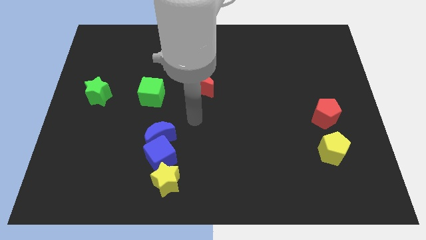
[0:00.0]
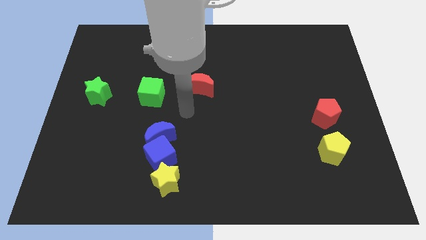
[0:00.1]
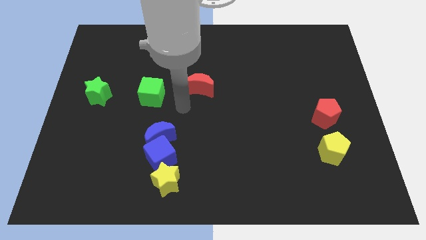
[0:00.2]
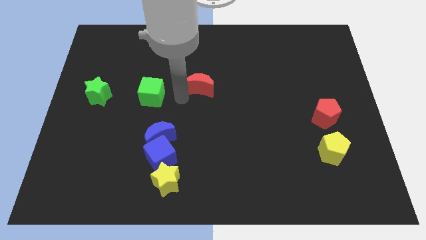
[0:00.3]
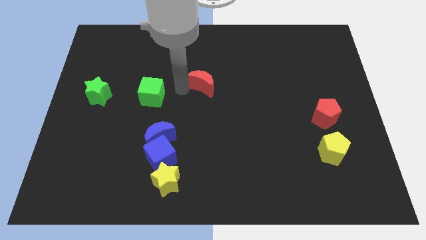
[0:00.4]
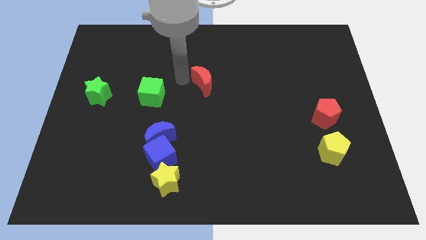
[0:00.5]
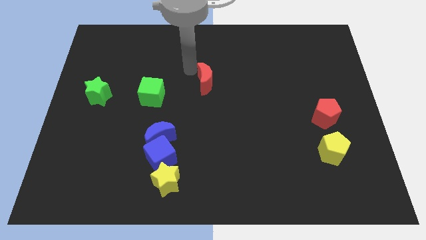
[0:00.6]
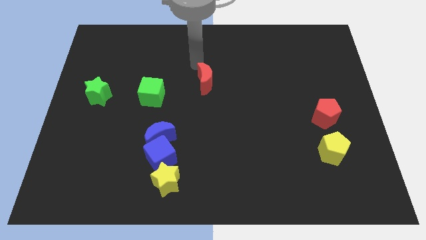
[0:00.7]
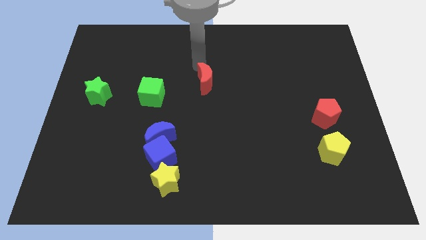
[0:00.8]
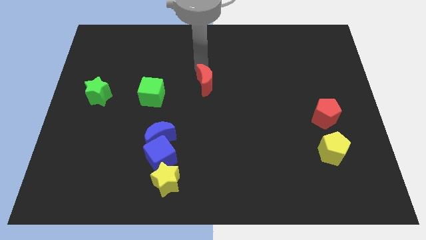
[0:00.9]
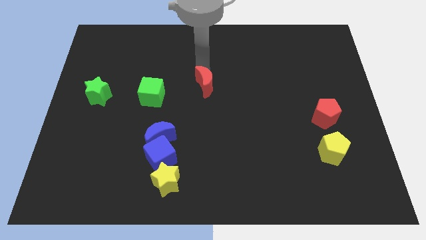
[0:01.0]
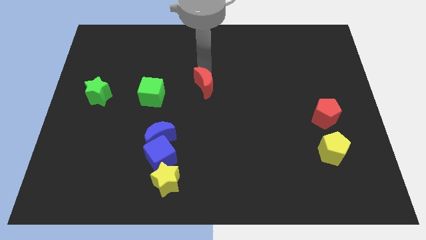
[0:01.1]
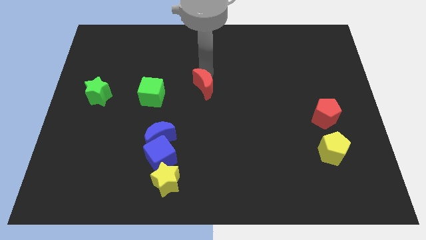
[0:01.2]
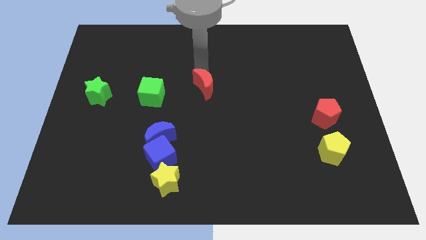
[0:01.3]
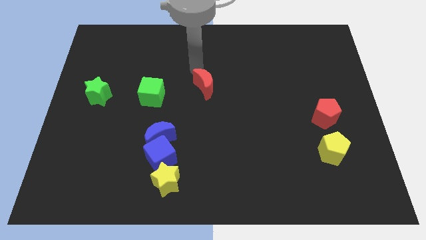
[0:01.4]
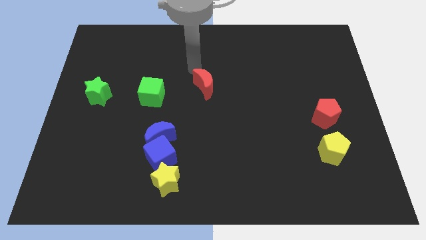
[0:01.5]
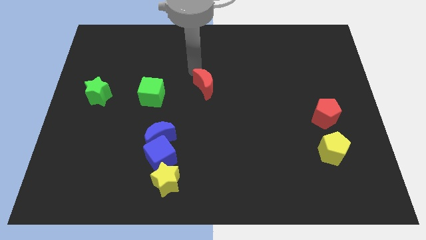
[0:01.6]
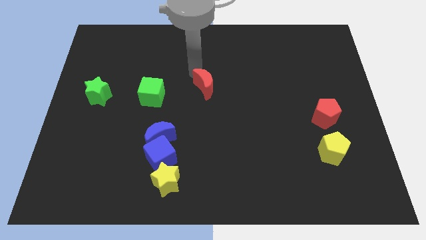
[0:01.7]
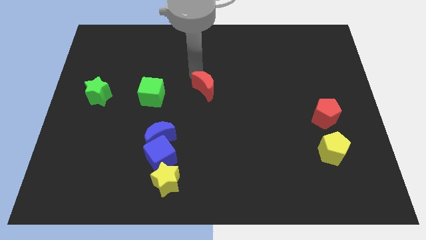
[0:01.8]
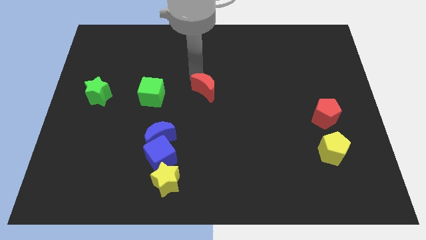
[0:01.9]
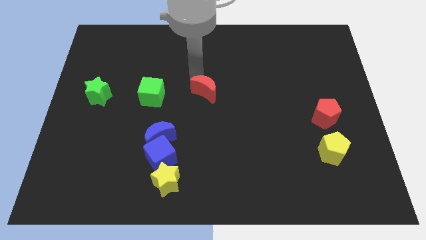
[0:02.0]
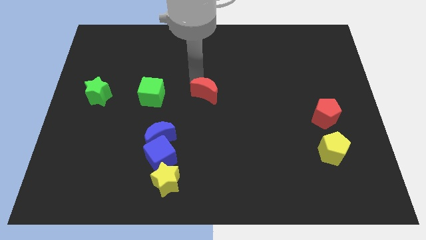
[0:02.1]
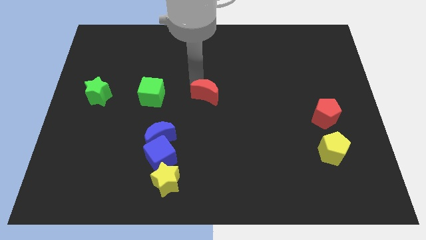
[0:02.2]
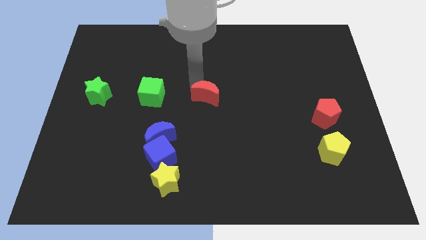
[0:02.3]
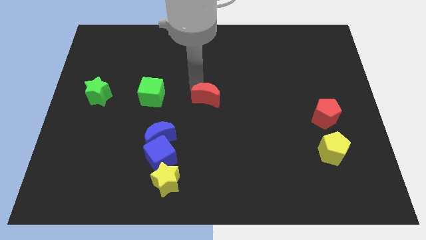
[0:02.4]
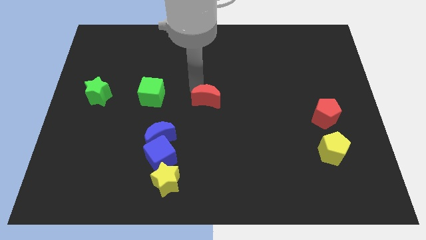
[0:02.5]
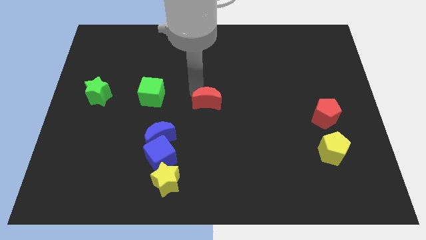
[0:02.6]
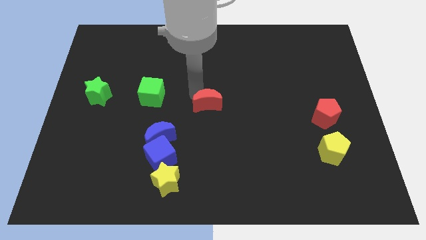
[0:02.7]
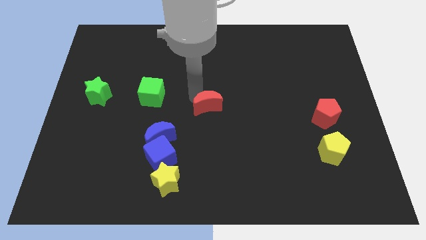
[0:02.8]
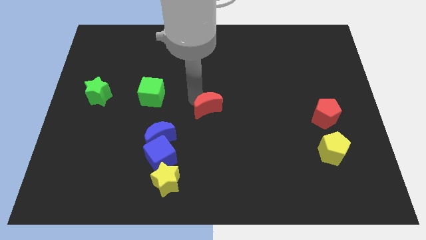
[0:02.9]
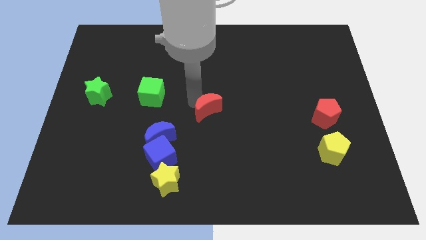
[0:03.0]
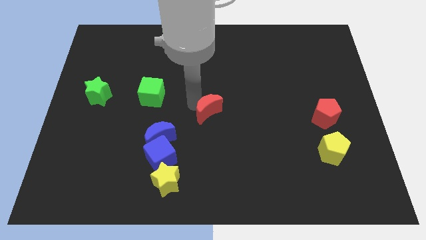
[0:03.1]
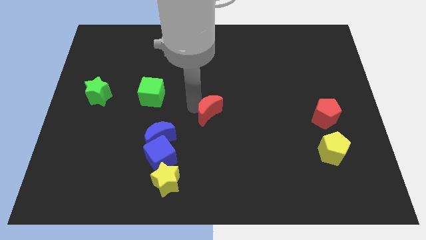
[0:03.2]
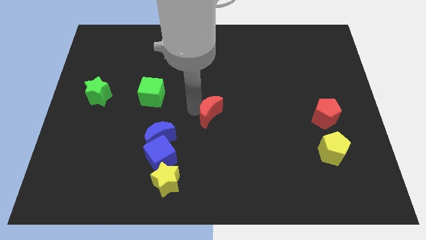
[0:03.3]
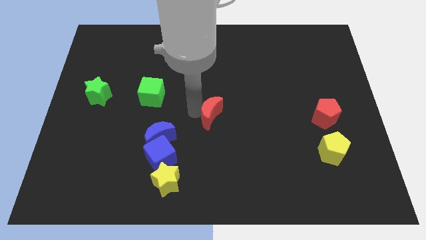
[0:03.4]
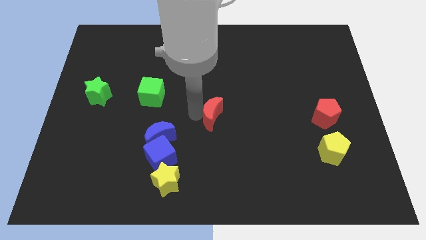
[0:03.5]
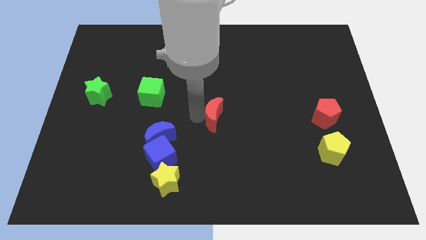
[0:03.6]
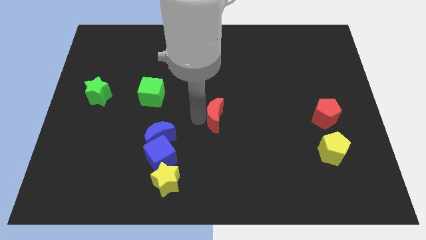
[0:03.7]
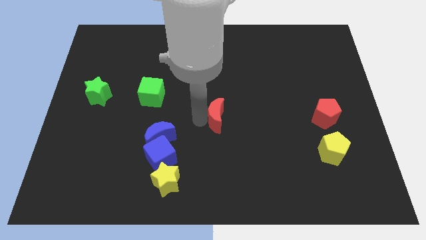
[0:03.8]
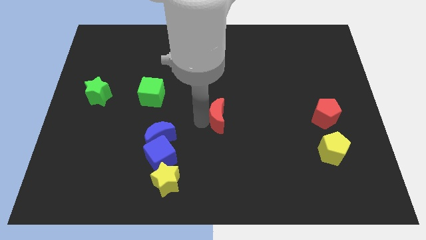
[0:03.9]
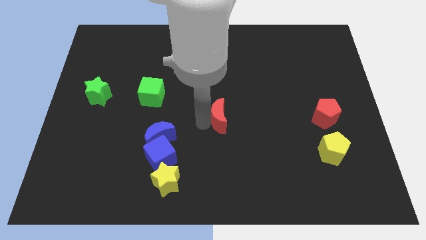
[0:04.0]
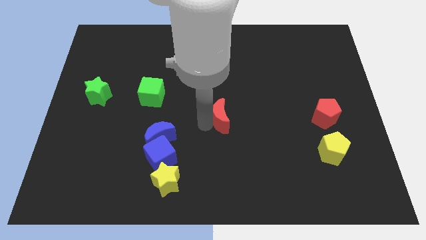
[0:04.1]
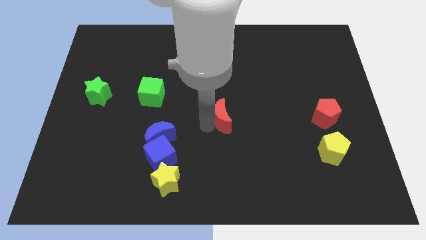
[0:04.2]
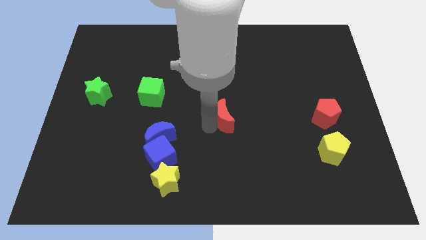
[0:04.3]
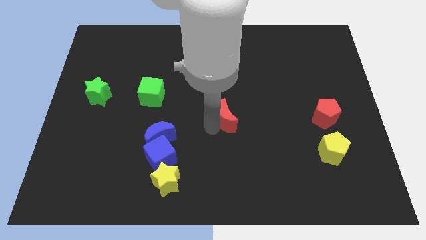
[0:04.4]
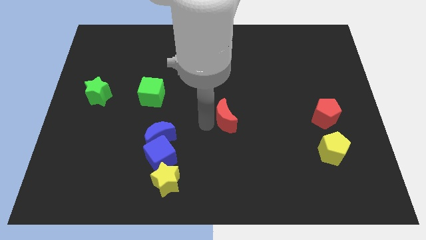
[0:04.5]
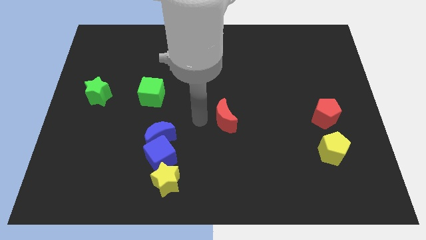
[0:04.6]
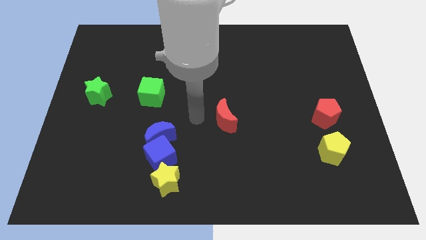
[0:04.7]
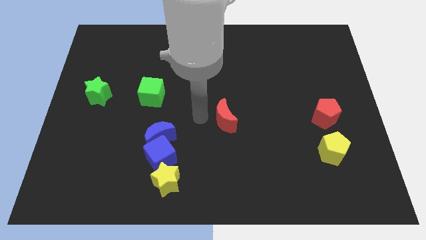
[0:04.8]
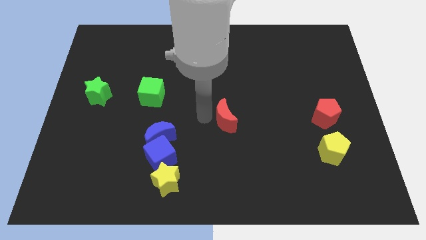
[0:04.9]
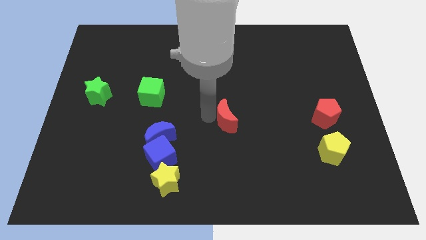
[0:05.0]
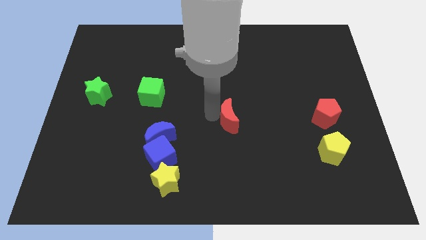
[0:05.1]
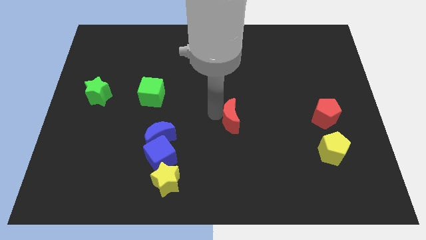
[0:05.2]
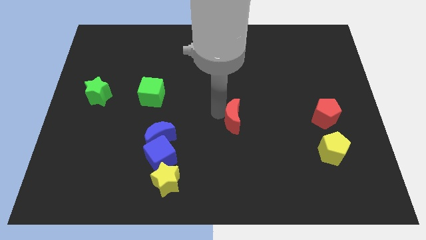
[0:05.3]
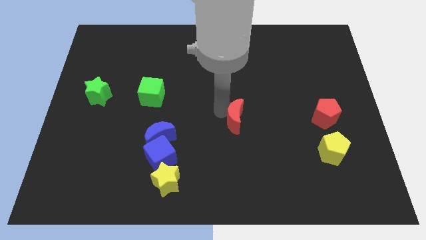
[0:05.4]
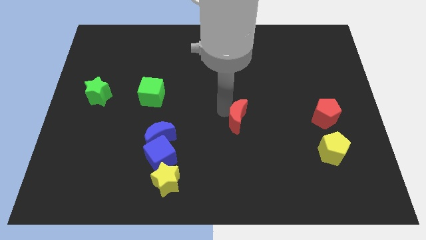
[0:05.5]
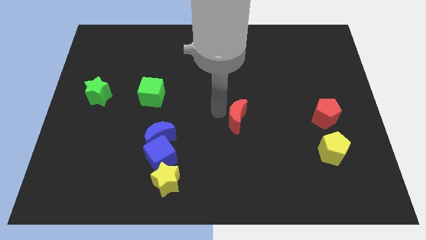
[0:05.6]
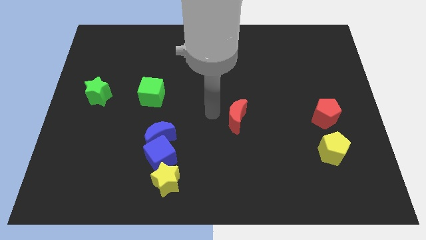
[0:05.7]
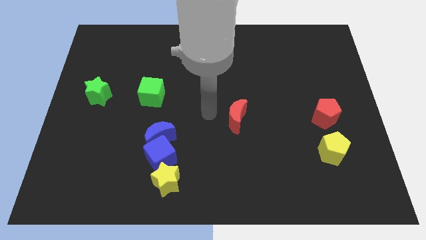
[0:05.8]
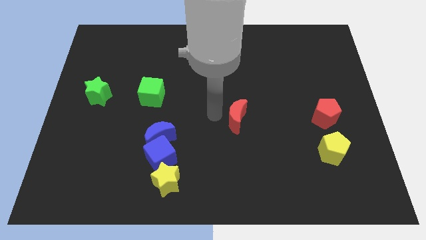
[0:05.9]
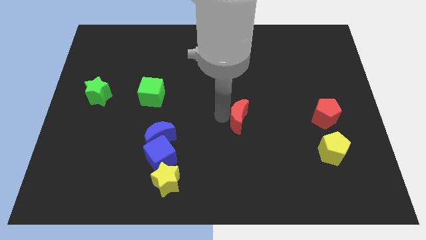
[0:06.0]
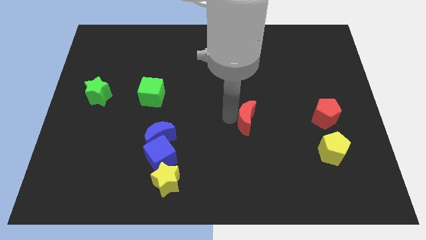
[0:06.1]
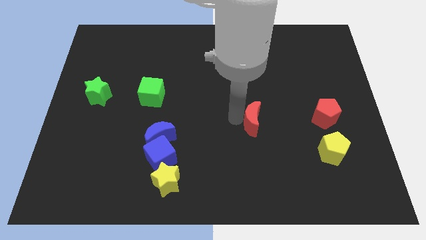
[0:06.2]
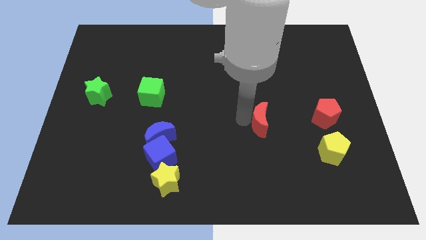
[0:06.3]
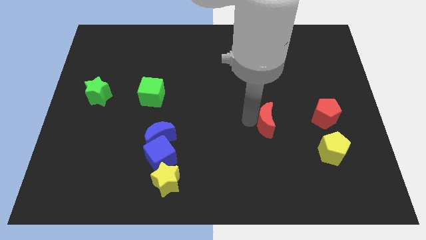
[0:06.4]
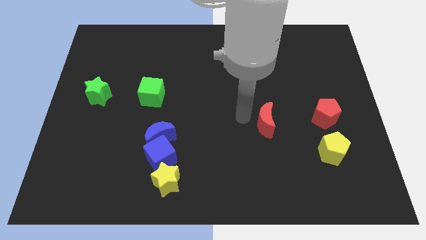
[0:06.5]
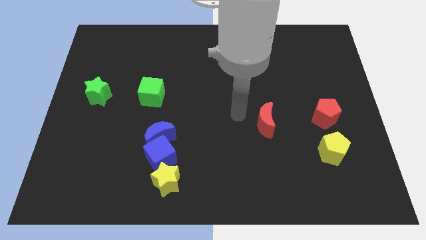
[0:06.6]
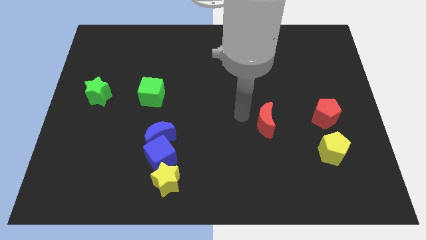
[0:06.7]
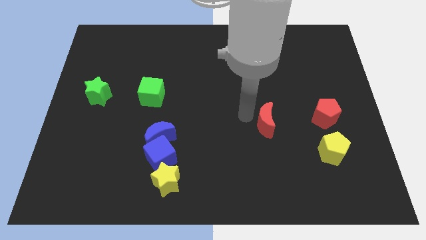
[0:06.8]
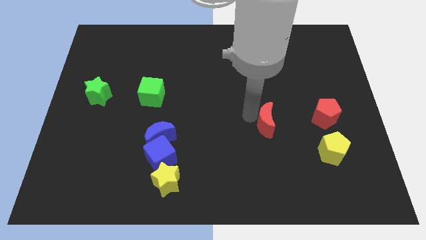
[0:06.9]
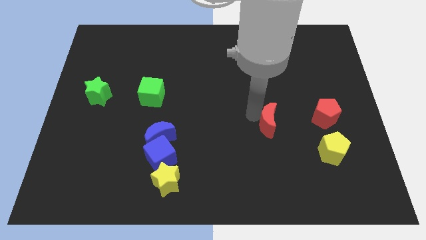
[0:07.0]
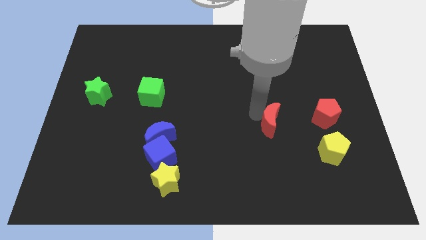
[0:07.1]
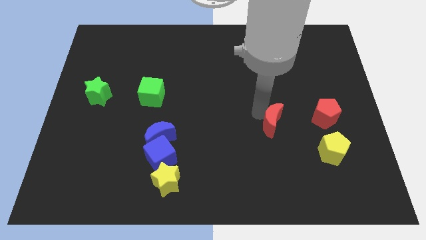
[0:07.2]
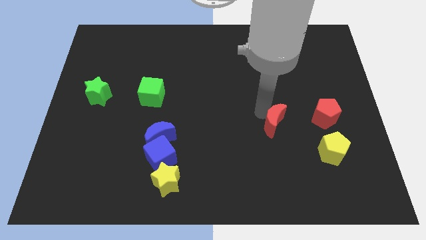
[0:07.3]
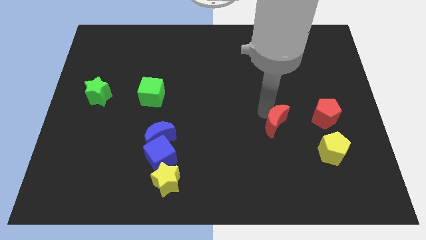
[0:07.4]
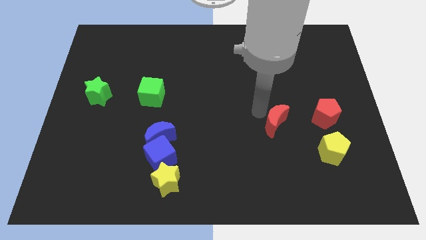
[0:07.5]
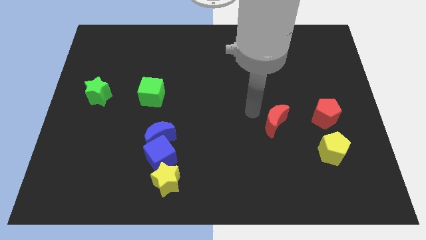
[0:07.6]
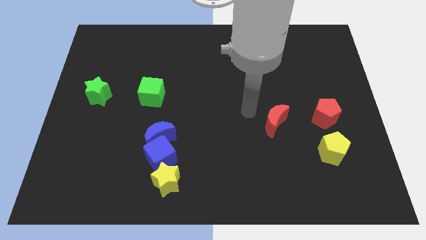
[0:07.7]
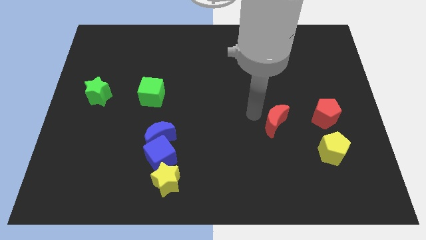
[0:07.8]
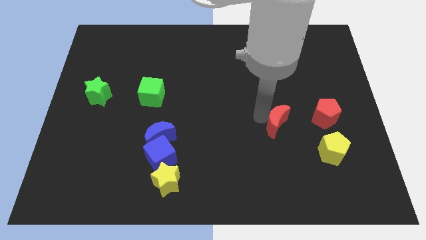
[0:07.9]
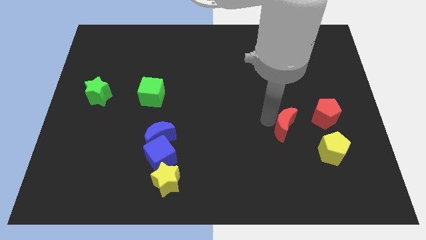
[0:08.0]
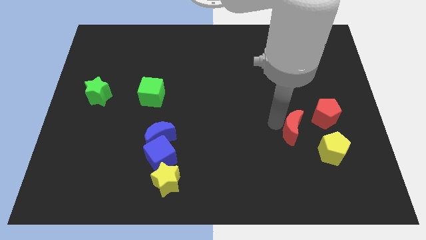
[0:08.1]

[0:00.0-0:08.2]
push the red moon to the bottom left side of the red pentagon
